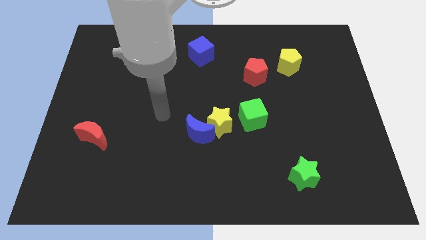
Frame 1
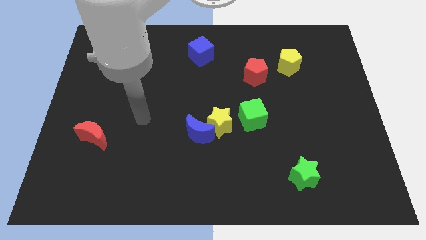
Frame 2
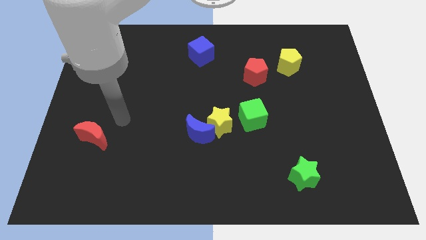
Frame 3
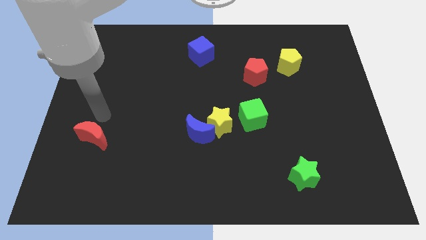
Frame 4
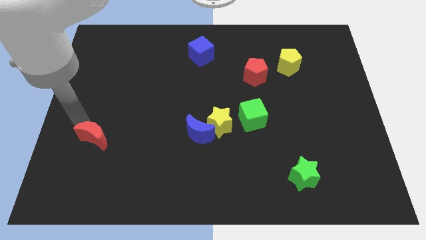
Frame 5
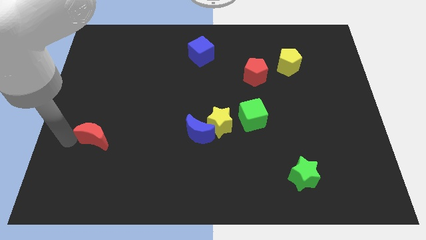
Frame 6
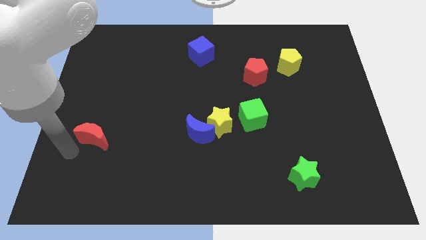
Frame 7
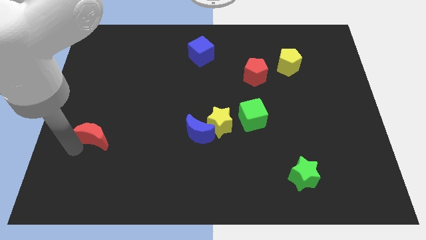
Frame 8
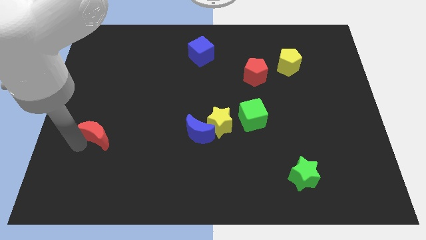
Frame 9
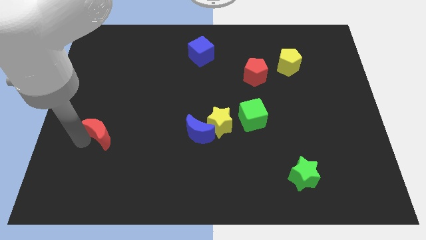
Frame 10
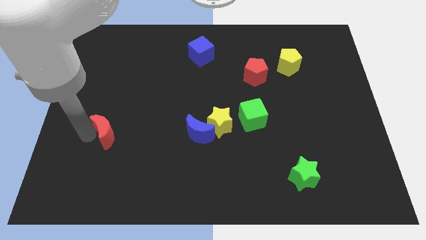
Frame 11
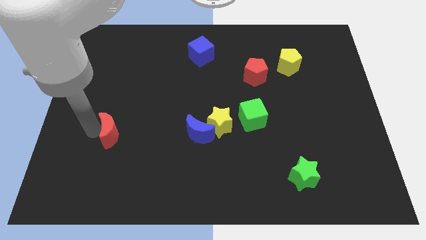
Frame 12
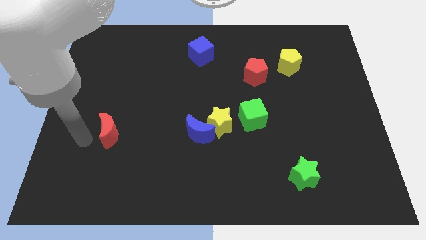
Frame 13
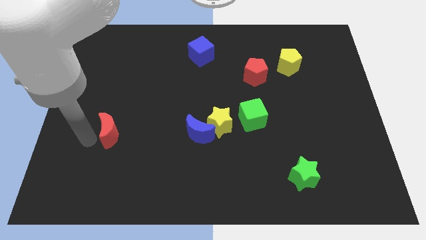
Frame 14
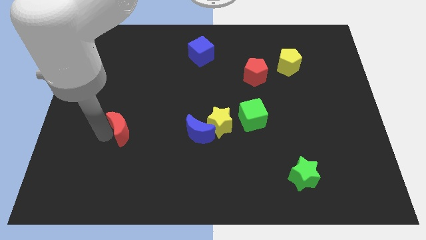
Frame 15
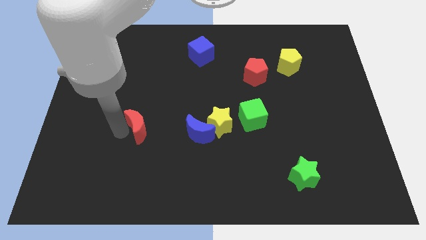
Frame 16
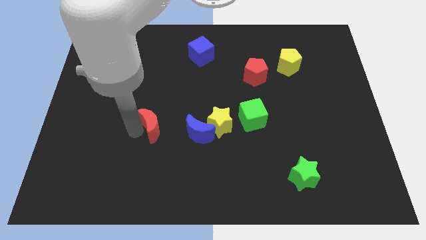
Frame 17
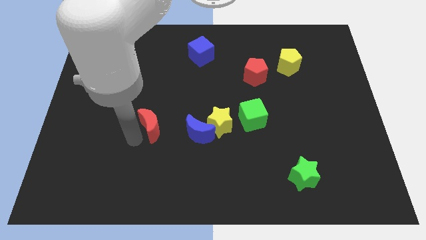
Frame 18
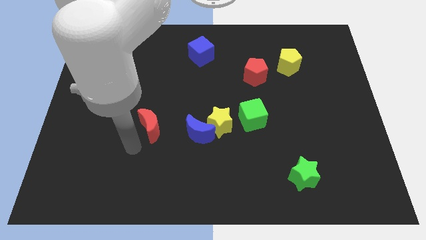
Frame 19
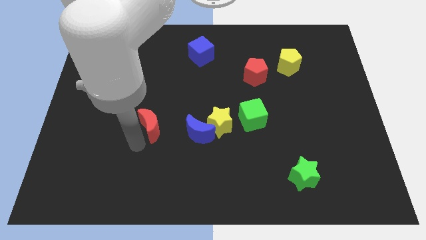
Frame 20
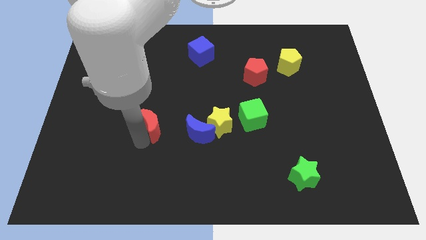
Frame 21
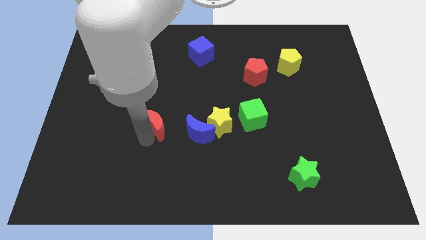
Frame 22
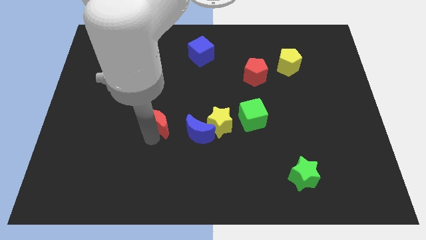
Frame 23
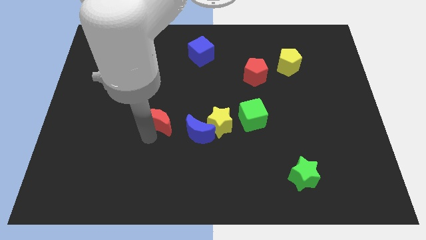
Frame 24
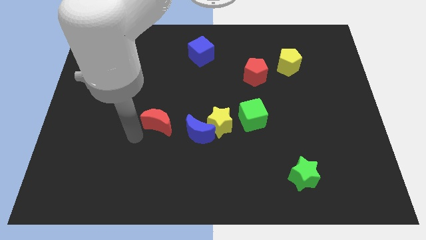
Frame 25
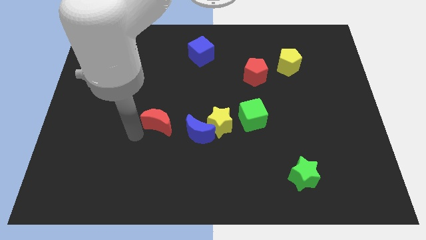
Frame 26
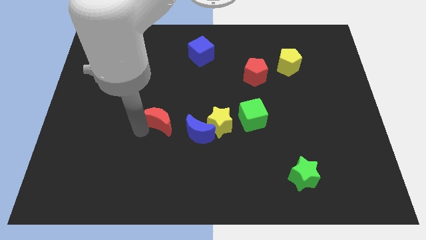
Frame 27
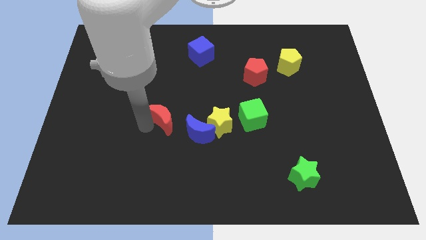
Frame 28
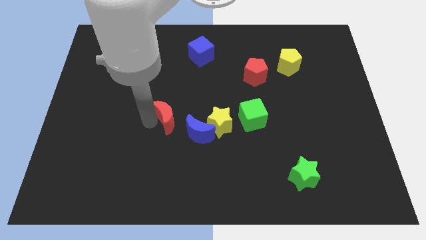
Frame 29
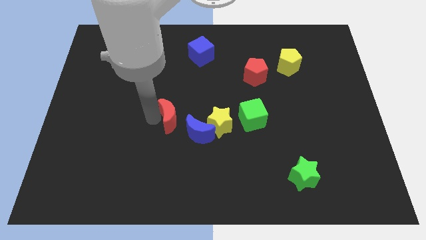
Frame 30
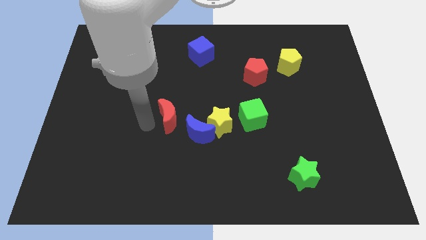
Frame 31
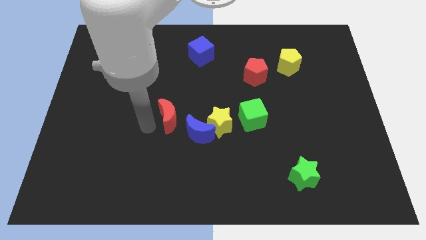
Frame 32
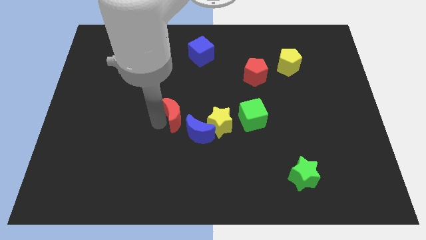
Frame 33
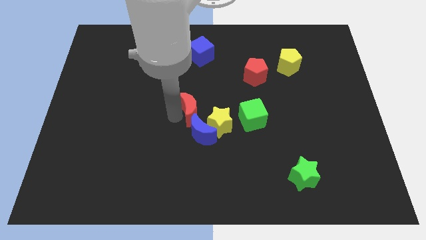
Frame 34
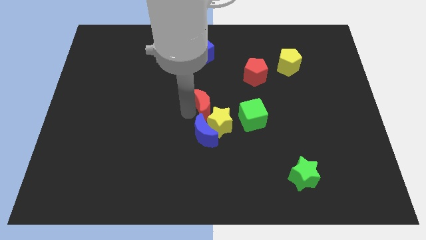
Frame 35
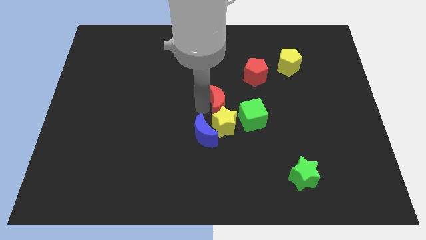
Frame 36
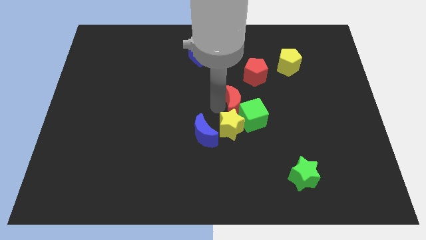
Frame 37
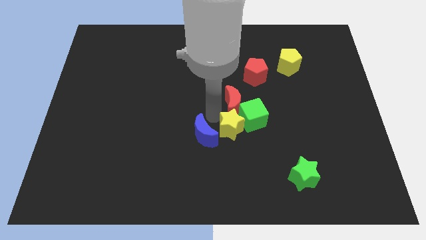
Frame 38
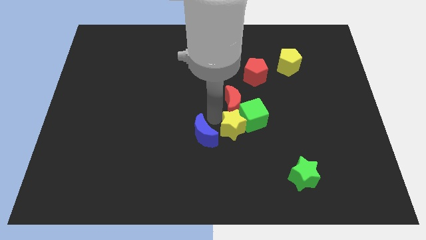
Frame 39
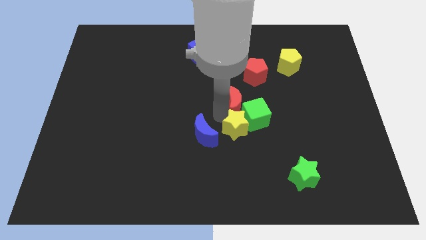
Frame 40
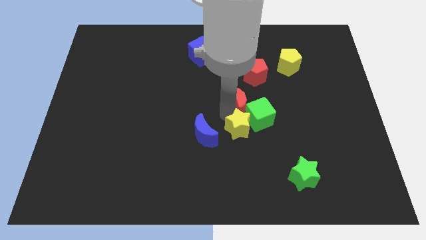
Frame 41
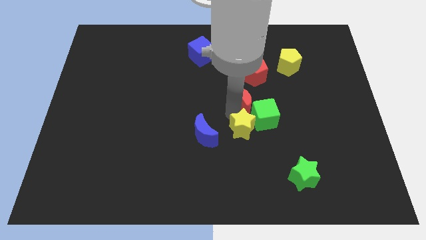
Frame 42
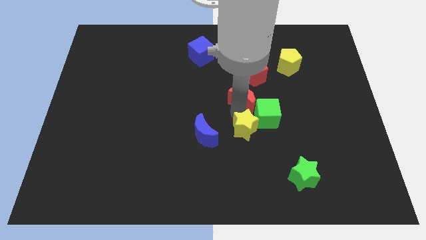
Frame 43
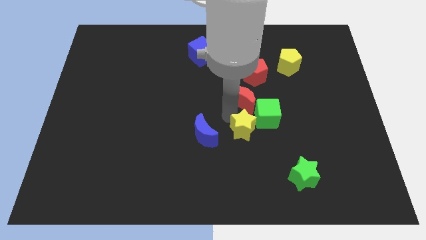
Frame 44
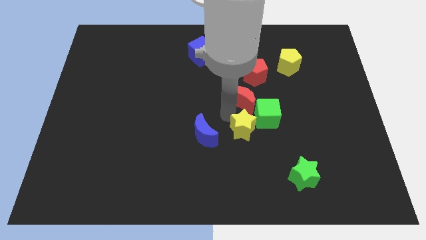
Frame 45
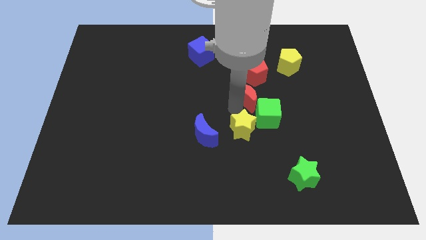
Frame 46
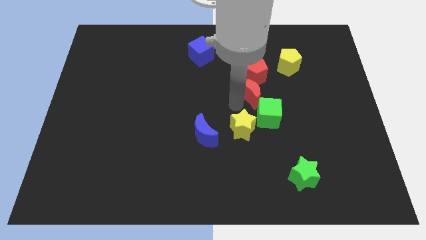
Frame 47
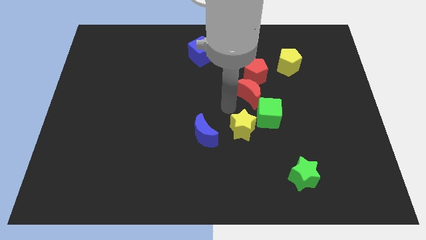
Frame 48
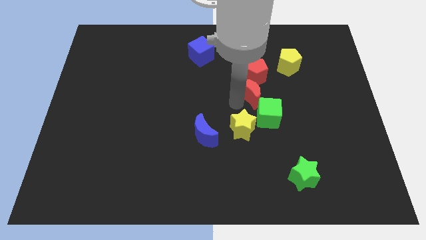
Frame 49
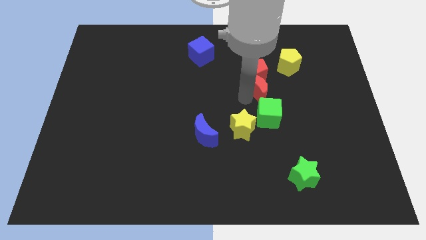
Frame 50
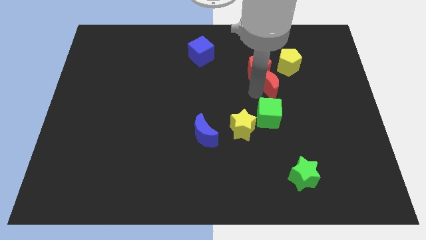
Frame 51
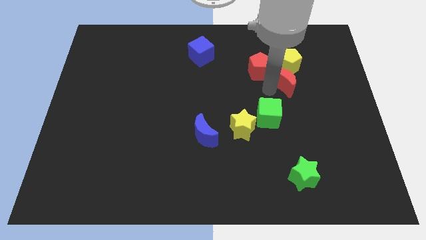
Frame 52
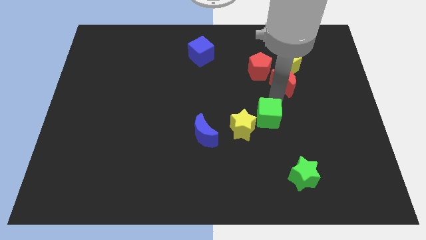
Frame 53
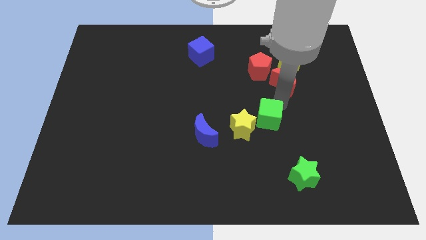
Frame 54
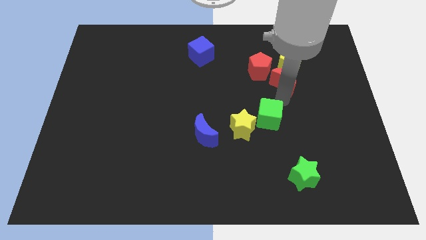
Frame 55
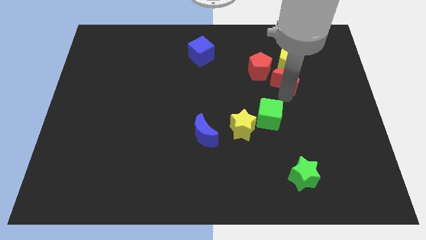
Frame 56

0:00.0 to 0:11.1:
slide the red moon next to the yellow pentagon

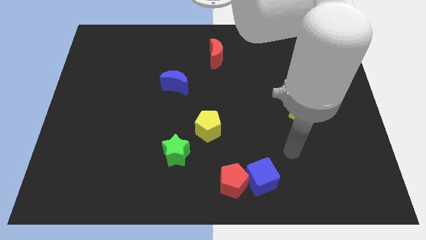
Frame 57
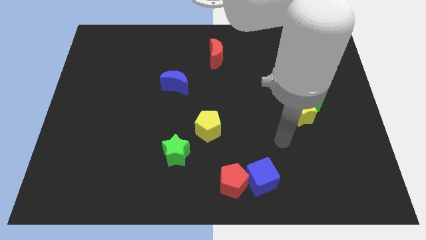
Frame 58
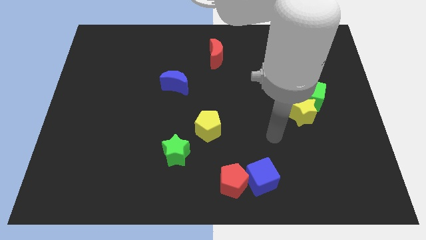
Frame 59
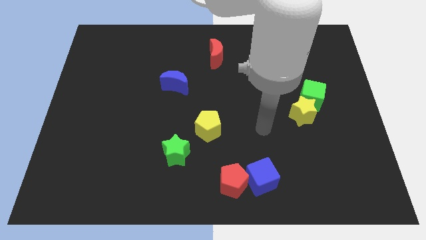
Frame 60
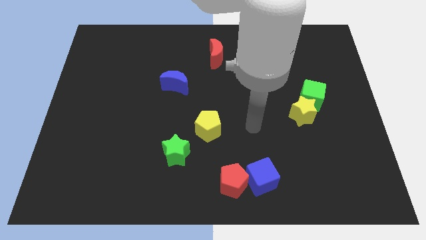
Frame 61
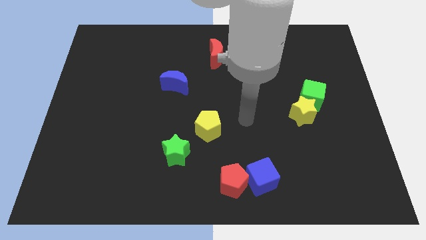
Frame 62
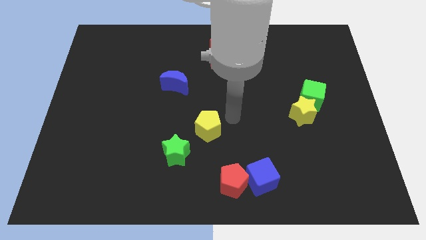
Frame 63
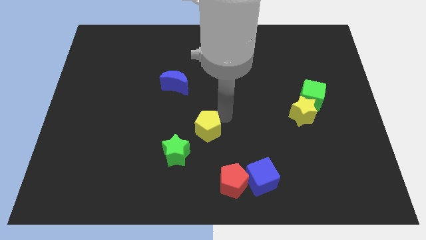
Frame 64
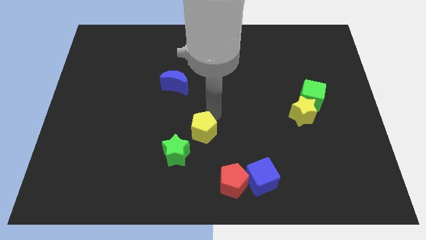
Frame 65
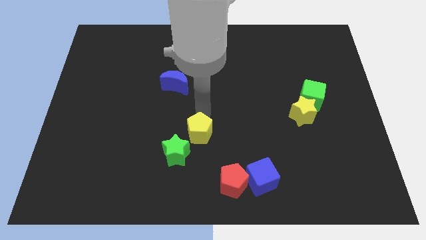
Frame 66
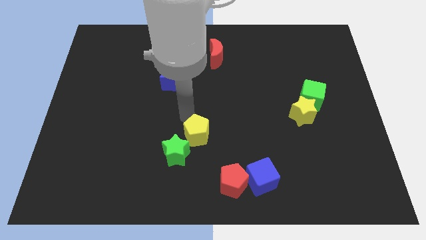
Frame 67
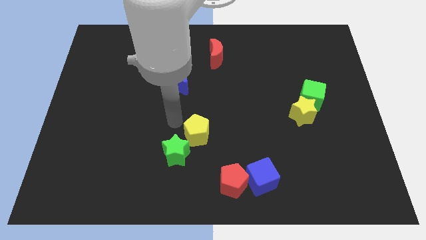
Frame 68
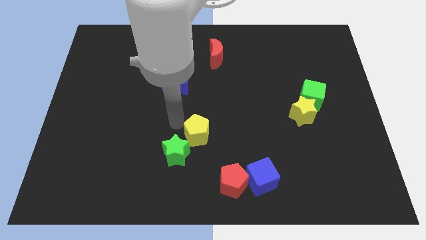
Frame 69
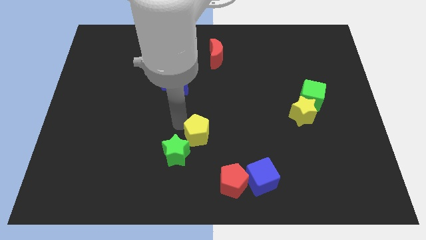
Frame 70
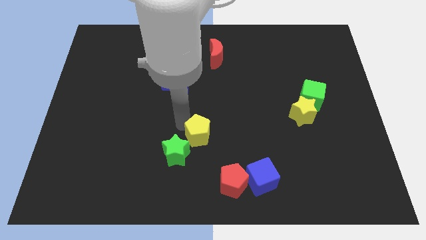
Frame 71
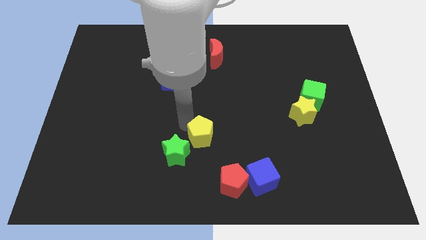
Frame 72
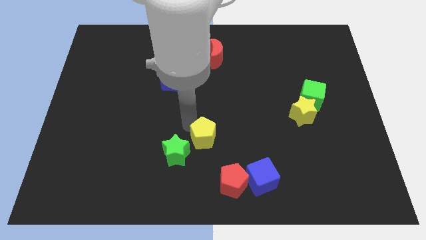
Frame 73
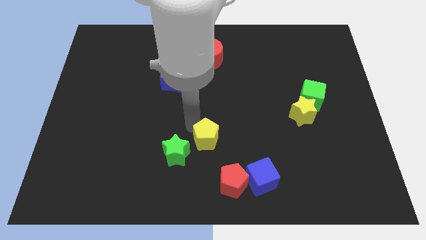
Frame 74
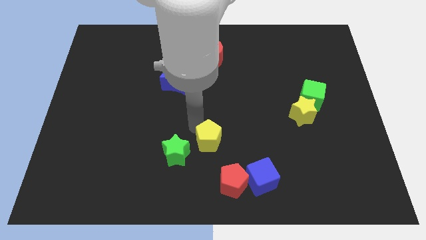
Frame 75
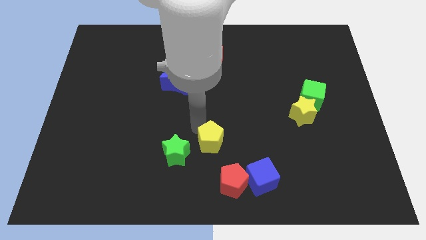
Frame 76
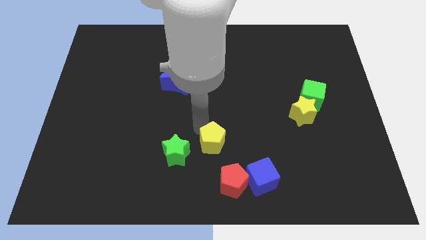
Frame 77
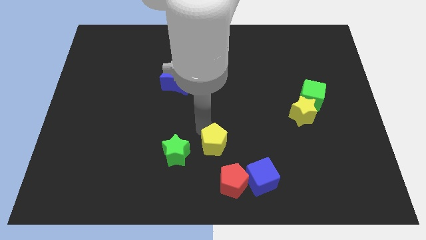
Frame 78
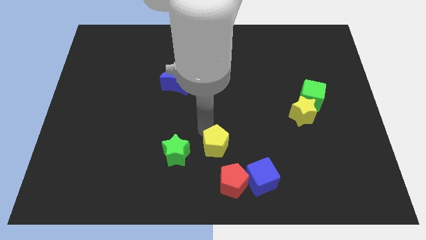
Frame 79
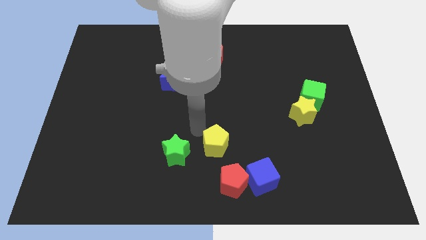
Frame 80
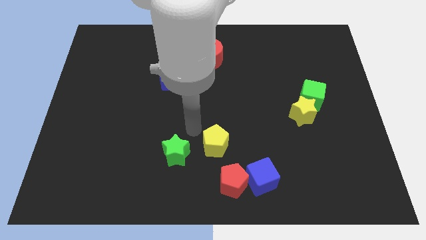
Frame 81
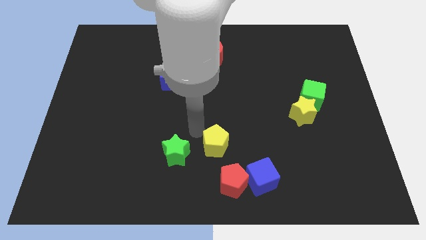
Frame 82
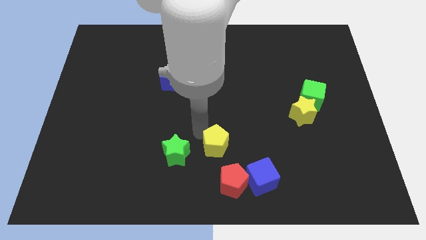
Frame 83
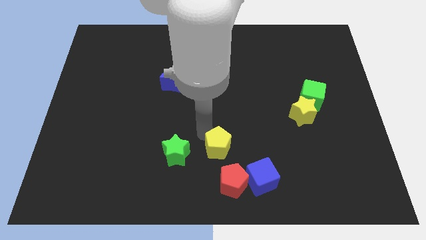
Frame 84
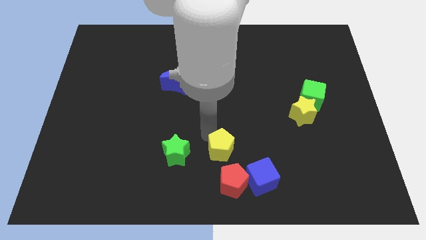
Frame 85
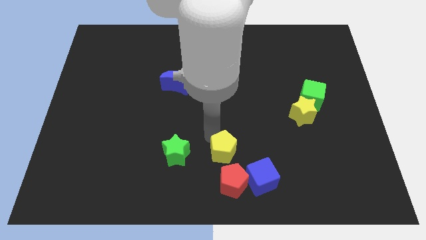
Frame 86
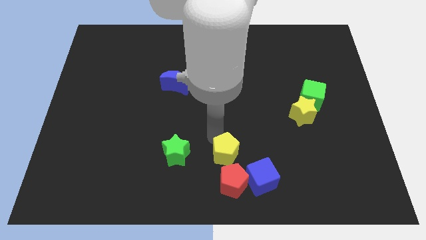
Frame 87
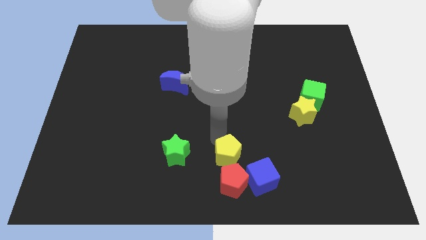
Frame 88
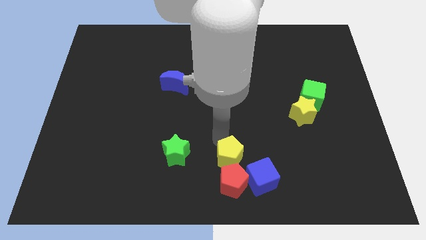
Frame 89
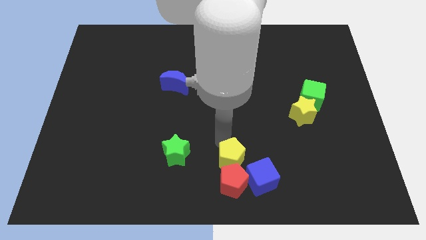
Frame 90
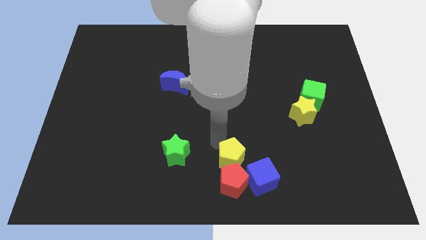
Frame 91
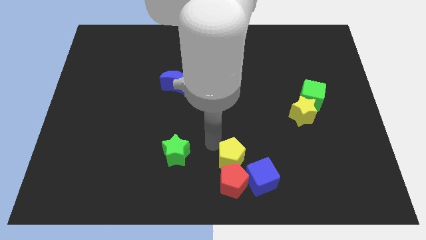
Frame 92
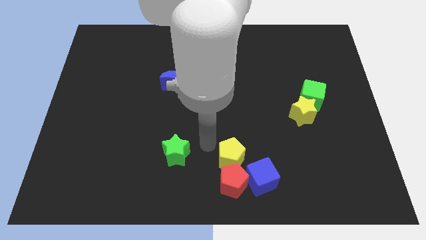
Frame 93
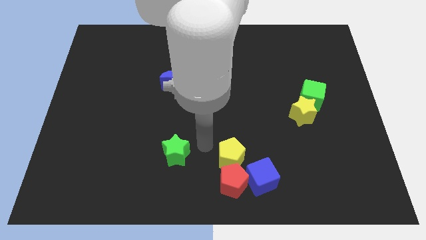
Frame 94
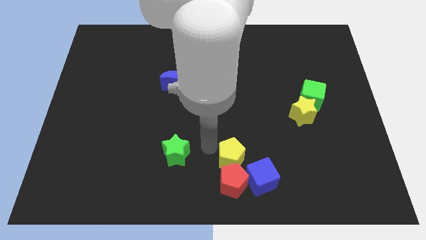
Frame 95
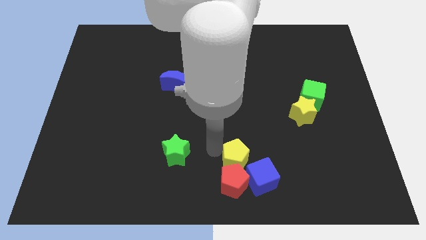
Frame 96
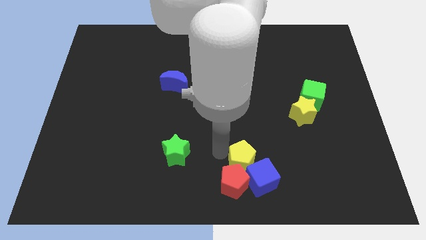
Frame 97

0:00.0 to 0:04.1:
put the yellow pentagon to the blue cube
